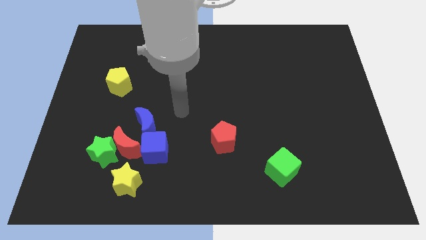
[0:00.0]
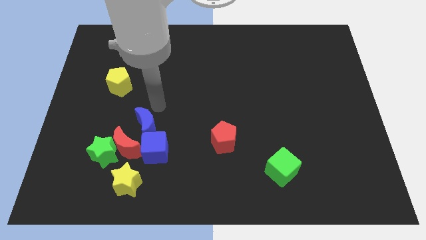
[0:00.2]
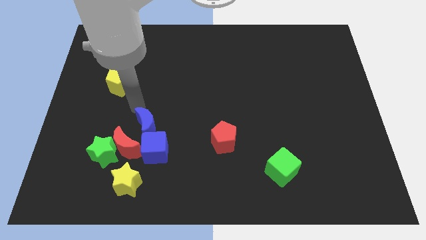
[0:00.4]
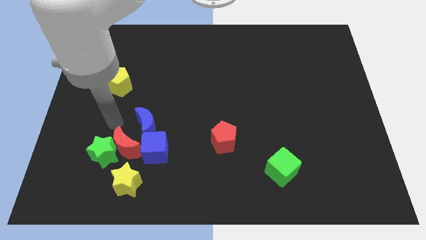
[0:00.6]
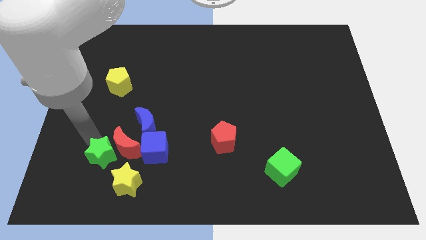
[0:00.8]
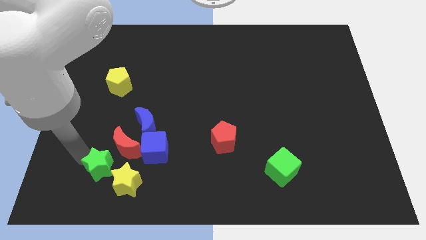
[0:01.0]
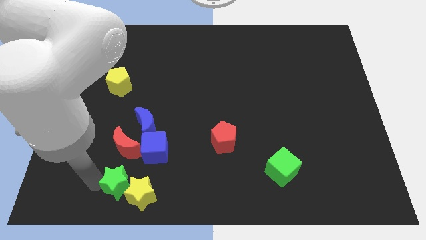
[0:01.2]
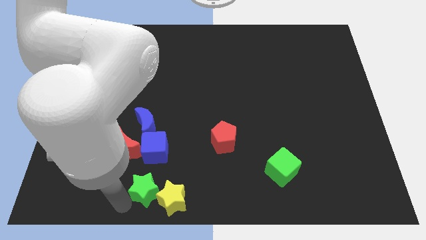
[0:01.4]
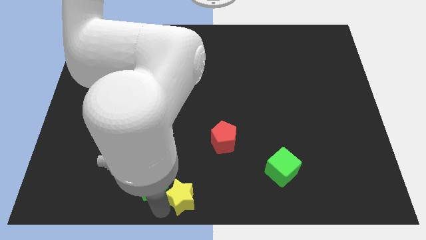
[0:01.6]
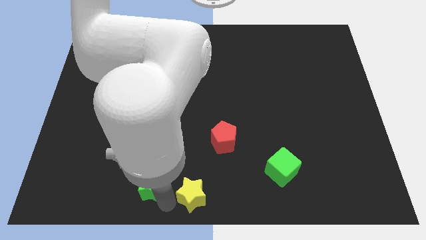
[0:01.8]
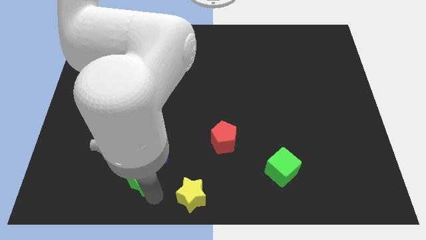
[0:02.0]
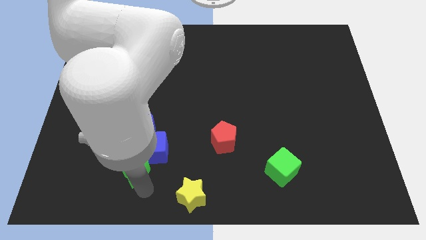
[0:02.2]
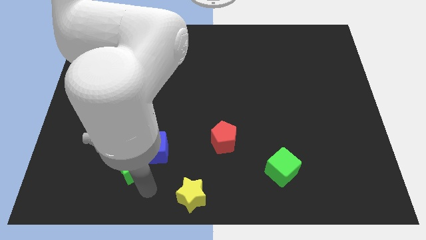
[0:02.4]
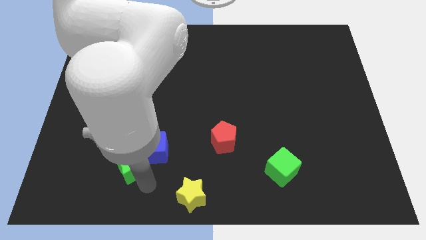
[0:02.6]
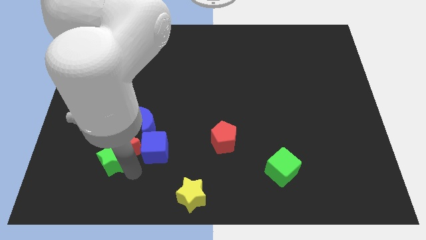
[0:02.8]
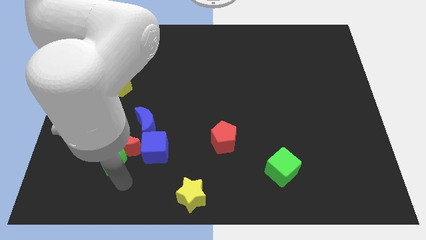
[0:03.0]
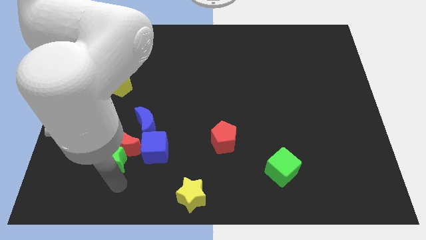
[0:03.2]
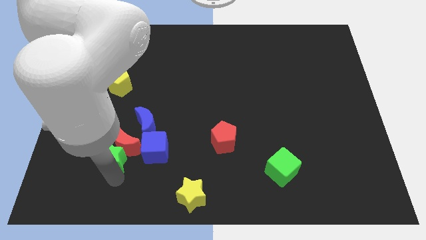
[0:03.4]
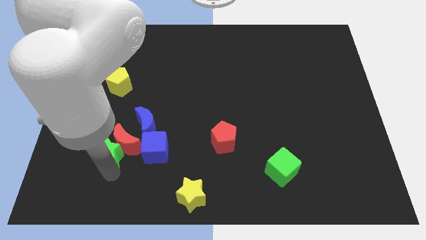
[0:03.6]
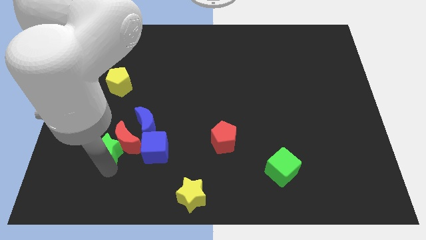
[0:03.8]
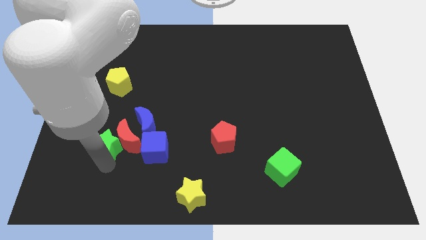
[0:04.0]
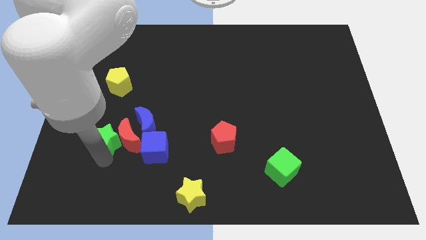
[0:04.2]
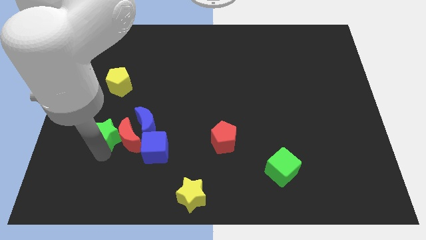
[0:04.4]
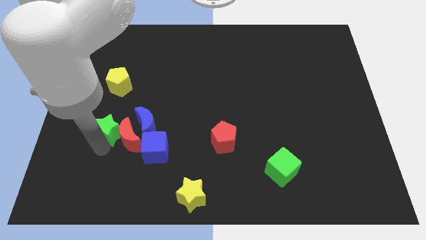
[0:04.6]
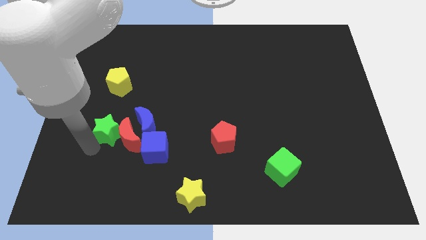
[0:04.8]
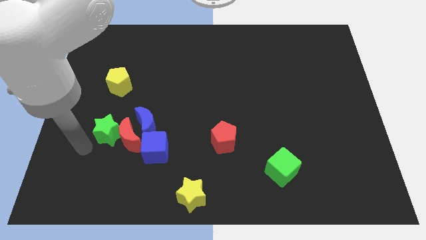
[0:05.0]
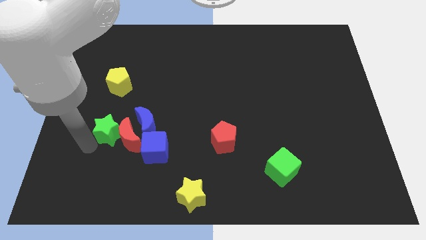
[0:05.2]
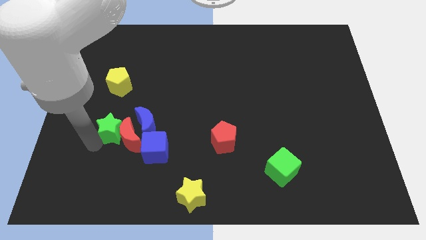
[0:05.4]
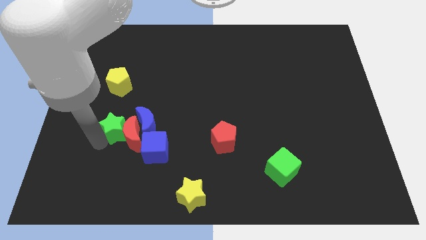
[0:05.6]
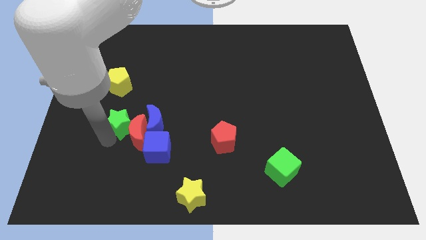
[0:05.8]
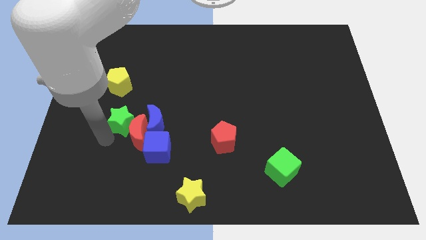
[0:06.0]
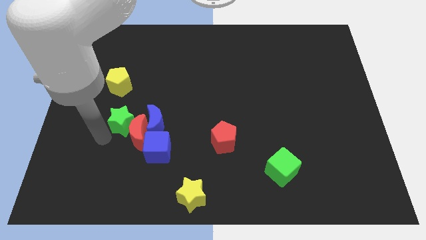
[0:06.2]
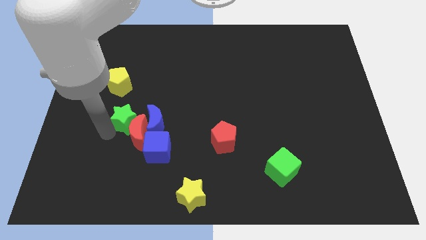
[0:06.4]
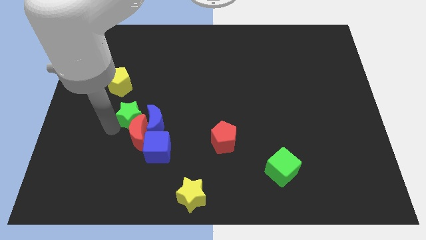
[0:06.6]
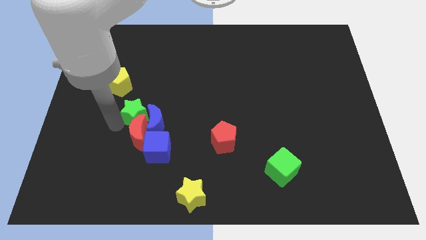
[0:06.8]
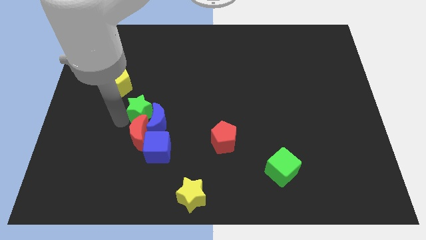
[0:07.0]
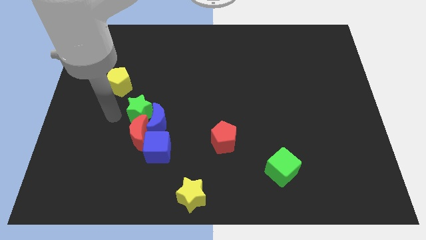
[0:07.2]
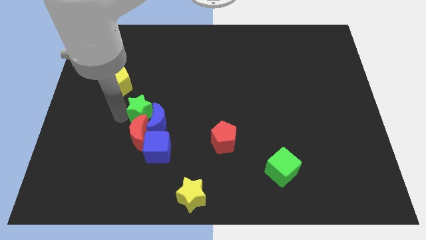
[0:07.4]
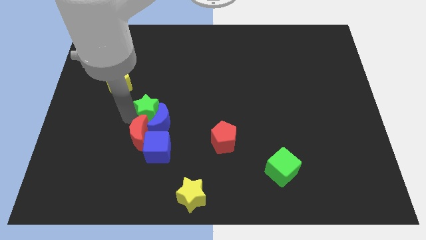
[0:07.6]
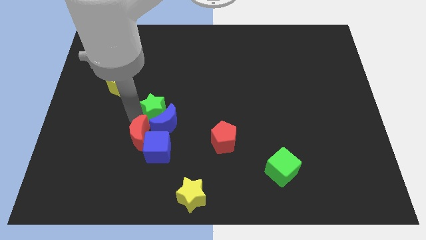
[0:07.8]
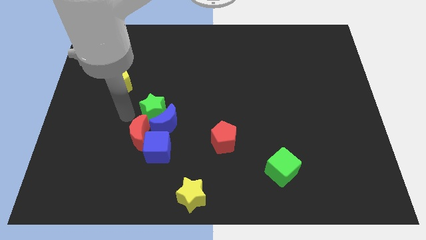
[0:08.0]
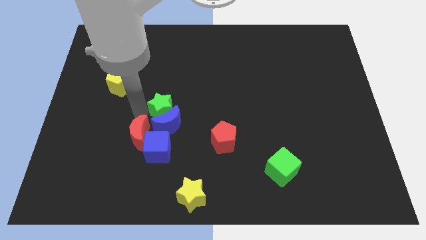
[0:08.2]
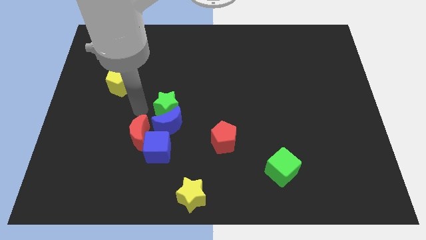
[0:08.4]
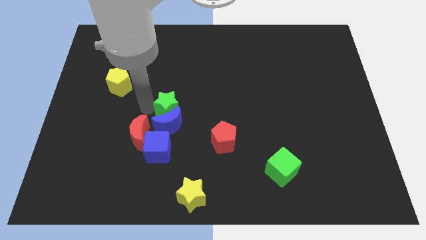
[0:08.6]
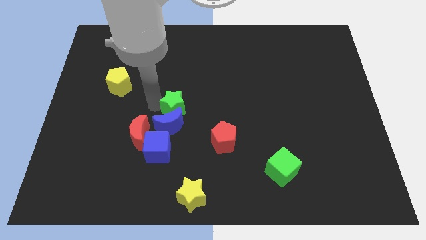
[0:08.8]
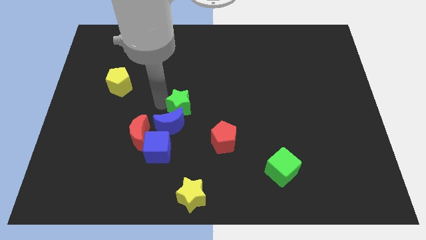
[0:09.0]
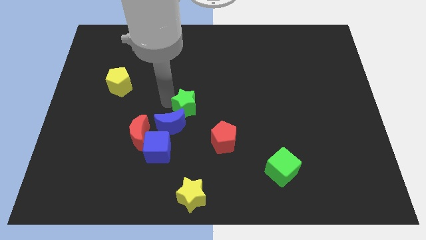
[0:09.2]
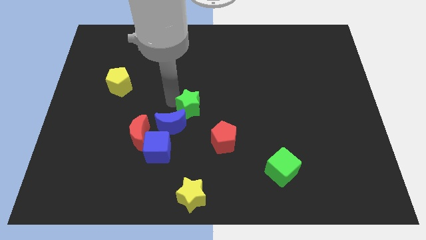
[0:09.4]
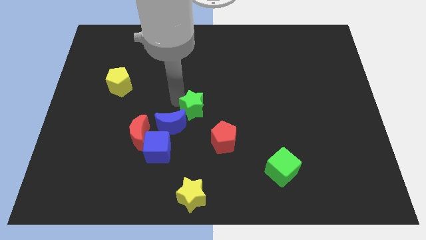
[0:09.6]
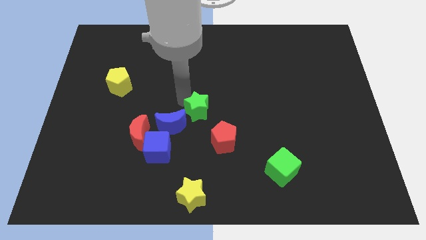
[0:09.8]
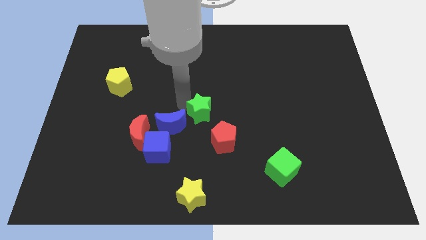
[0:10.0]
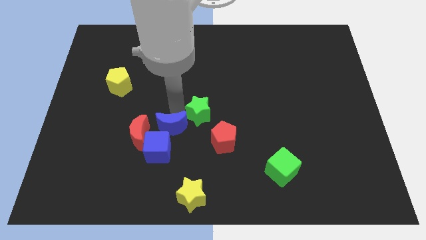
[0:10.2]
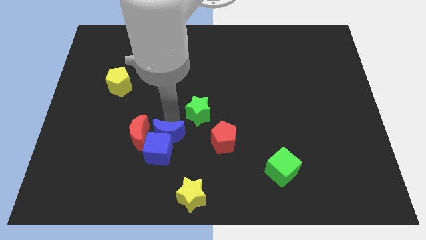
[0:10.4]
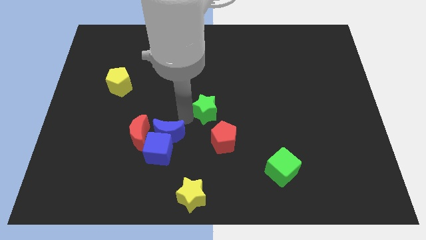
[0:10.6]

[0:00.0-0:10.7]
slide the green star to the top of the red pentagon
